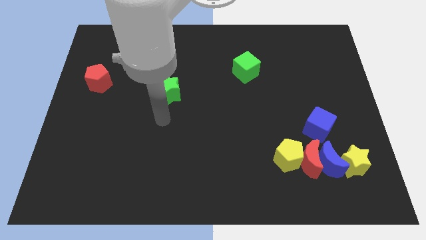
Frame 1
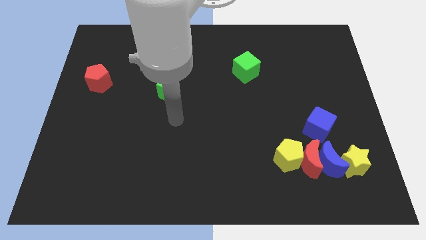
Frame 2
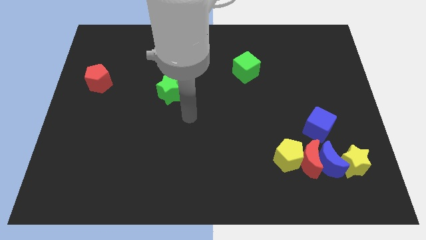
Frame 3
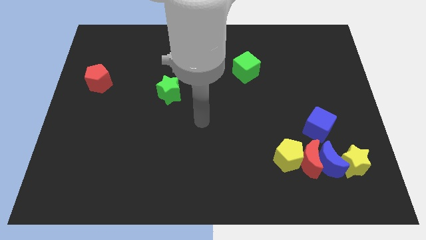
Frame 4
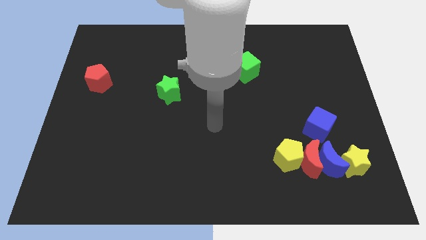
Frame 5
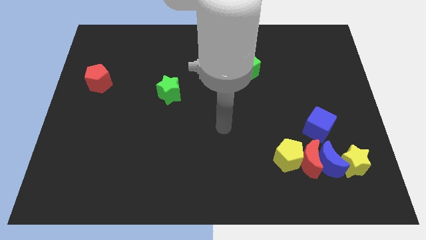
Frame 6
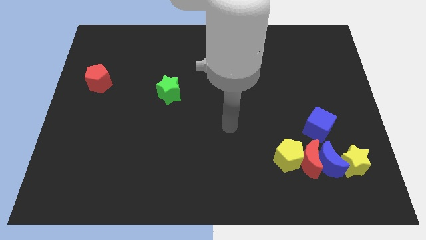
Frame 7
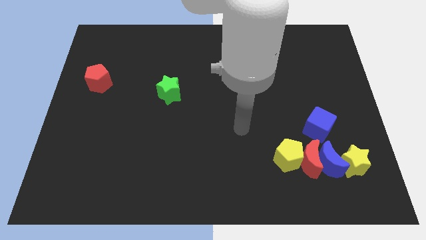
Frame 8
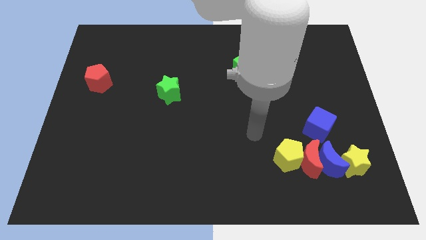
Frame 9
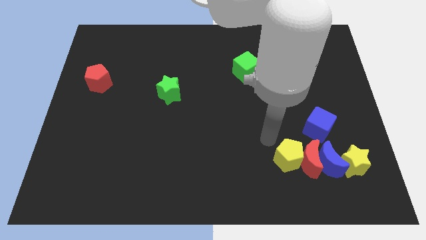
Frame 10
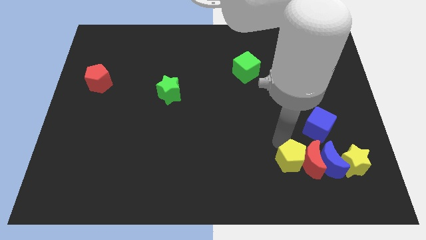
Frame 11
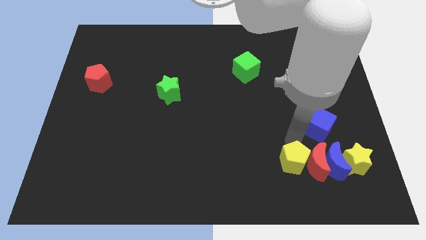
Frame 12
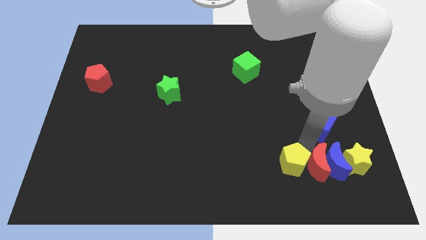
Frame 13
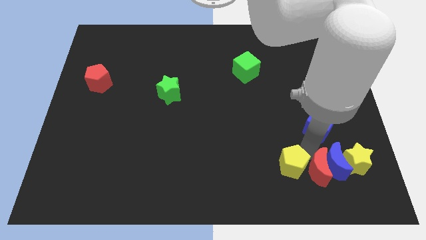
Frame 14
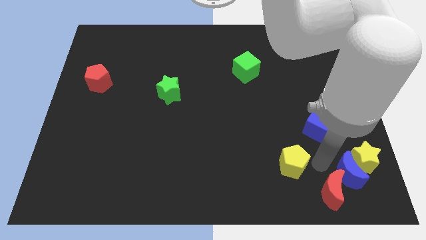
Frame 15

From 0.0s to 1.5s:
move the yellow pentagon away from the red moon and blue moon

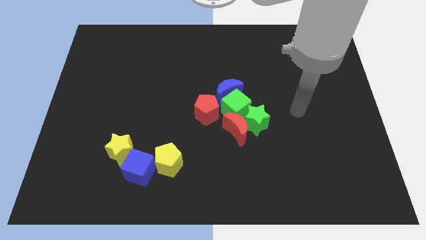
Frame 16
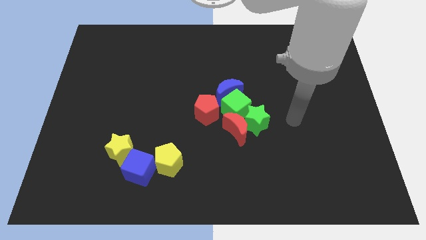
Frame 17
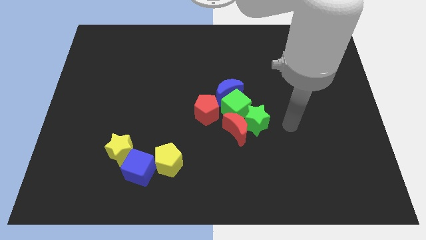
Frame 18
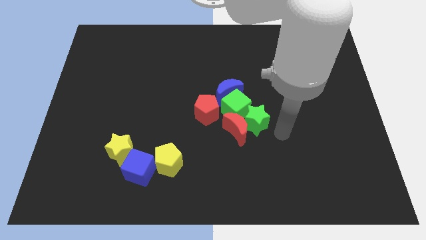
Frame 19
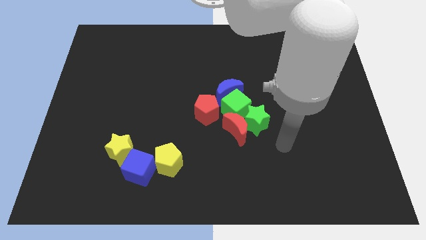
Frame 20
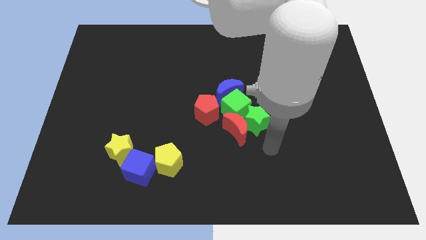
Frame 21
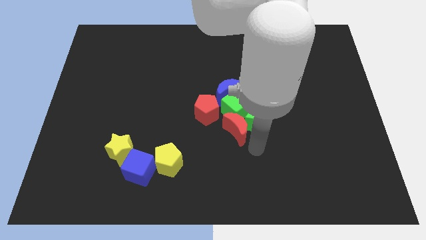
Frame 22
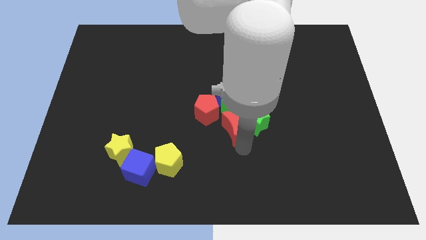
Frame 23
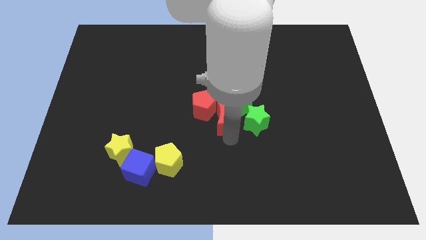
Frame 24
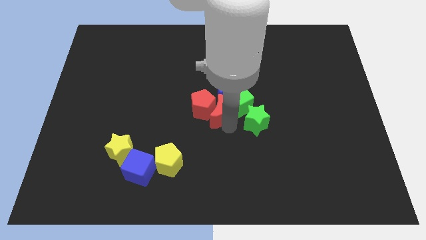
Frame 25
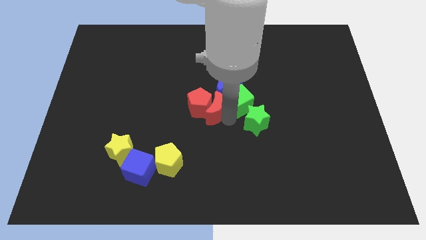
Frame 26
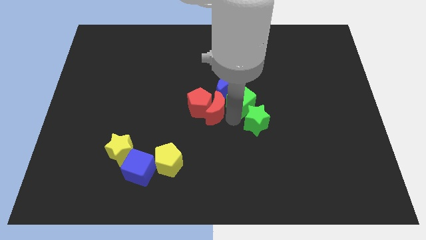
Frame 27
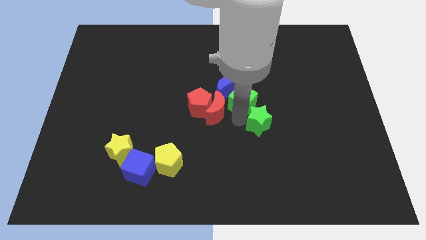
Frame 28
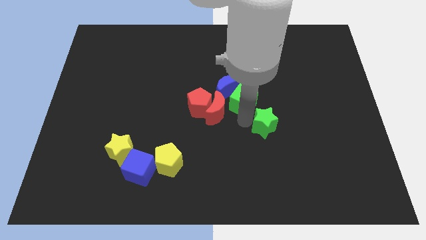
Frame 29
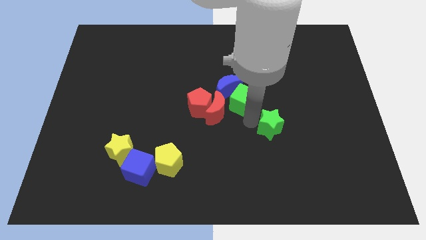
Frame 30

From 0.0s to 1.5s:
separate the green star from the red moon and green cube

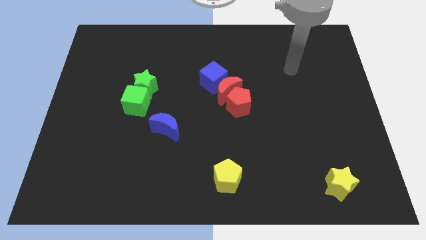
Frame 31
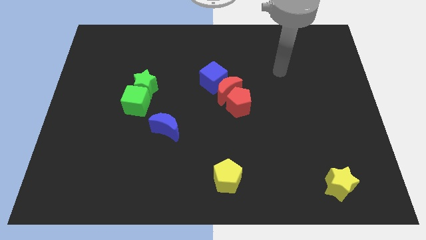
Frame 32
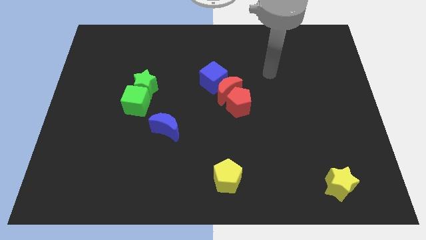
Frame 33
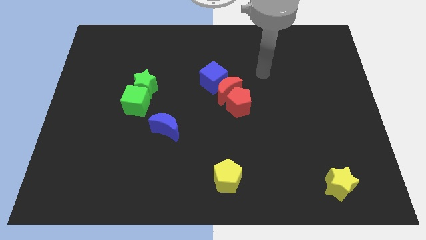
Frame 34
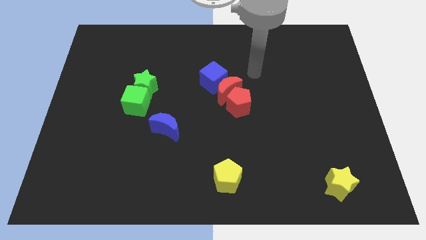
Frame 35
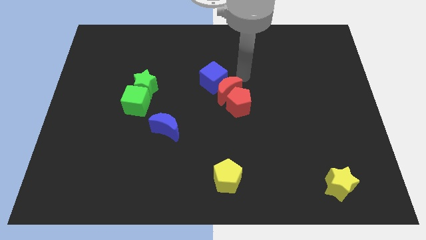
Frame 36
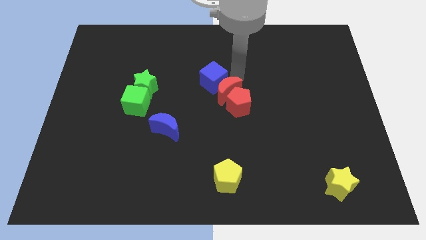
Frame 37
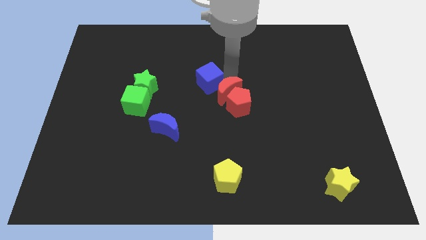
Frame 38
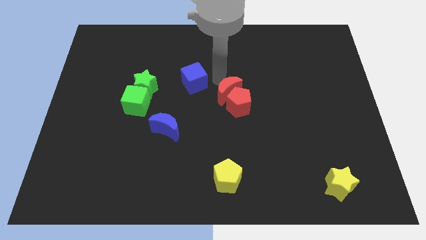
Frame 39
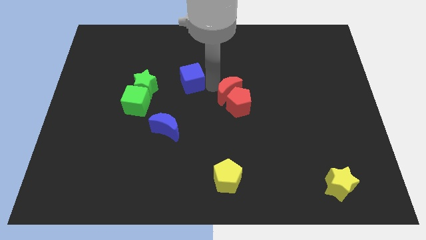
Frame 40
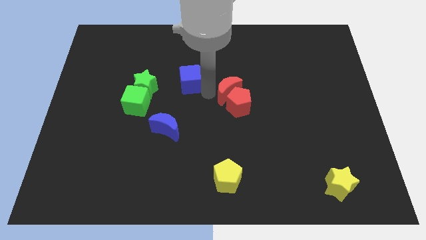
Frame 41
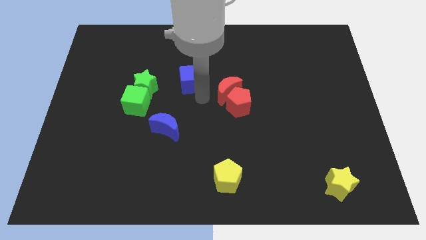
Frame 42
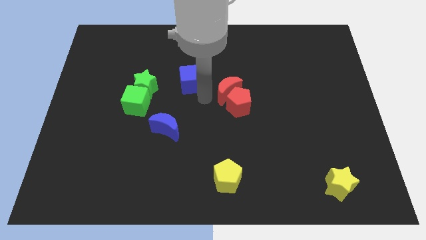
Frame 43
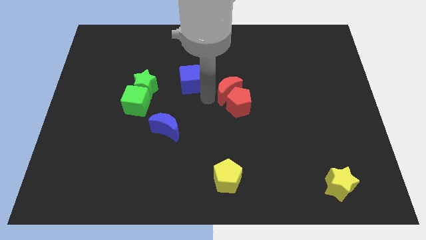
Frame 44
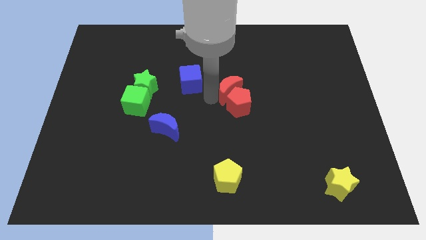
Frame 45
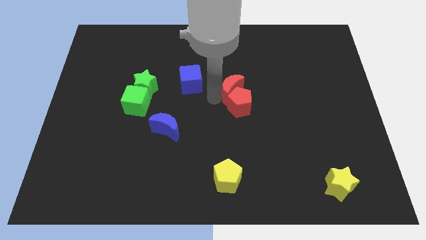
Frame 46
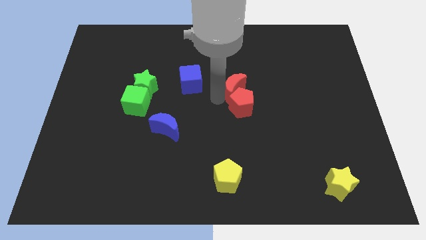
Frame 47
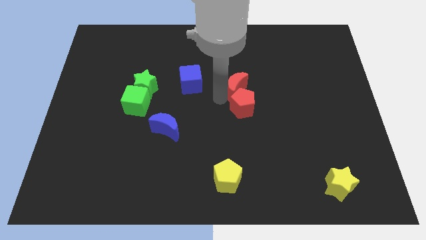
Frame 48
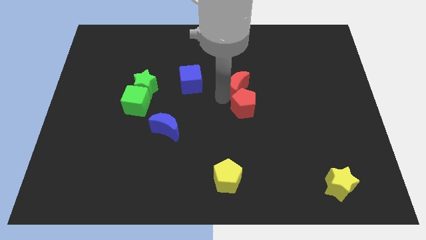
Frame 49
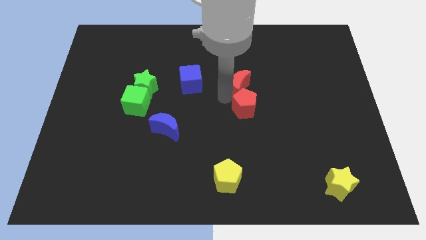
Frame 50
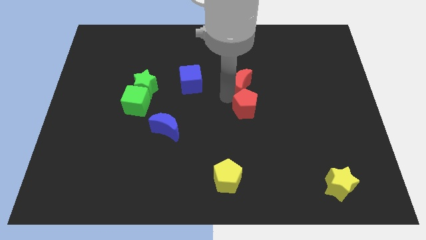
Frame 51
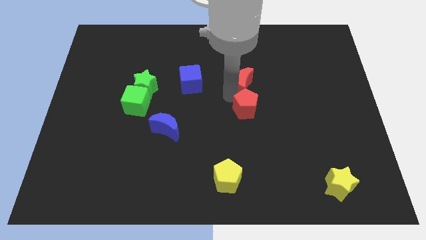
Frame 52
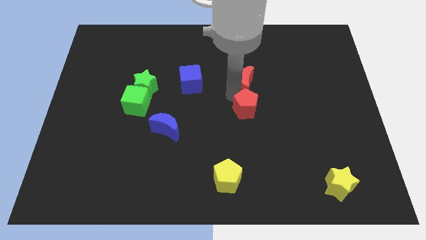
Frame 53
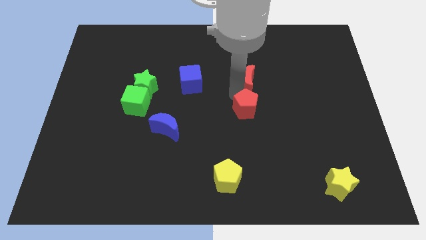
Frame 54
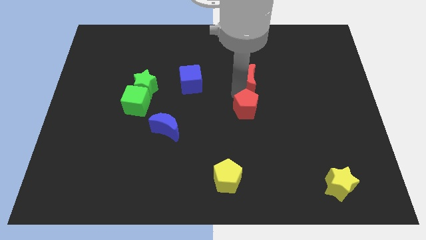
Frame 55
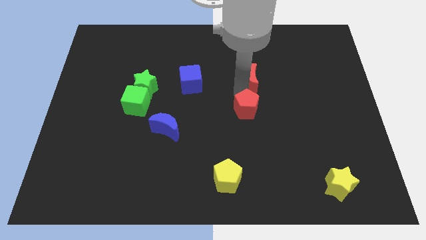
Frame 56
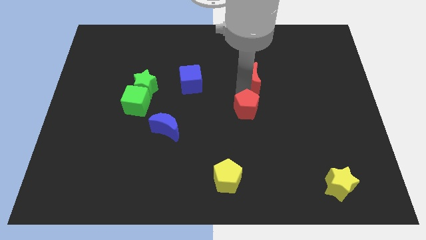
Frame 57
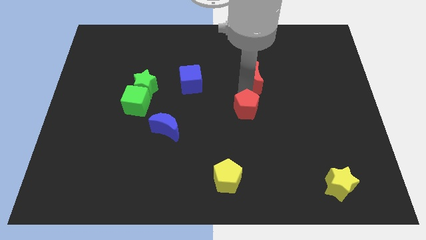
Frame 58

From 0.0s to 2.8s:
pull the red moon apart from the red pentagon and blue cube

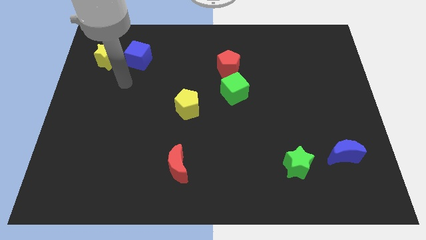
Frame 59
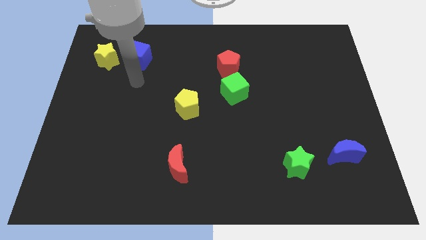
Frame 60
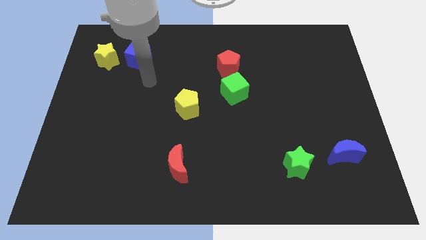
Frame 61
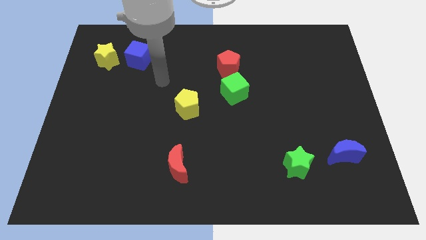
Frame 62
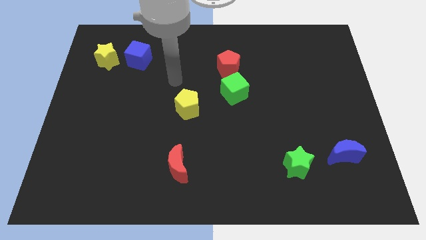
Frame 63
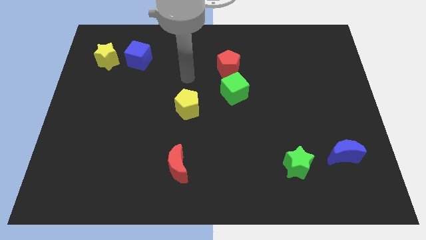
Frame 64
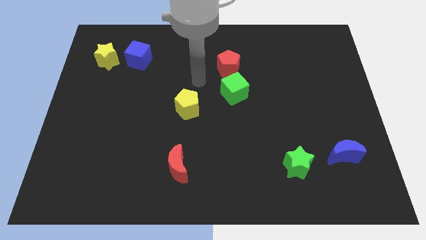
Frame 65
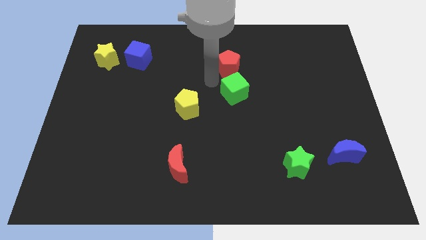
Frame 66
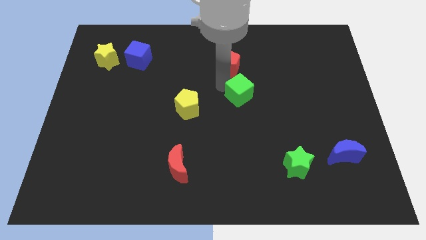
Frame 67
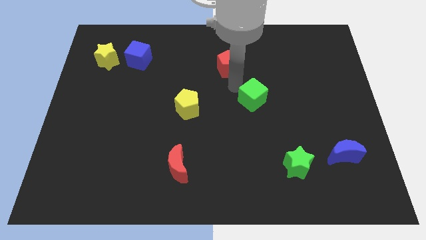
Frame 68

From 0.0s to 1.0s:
move the red pentagon away from the green cube

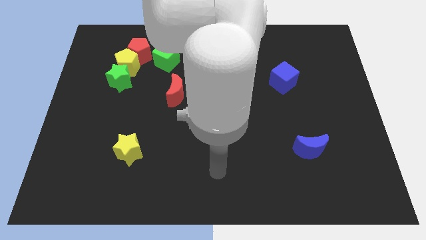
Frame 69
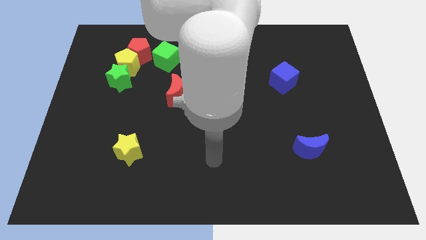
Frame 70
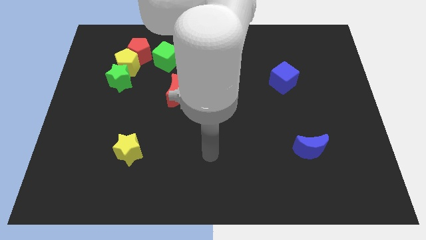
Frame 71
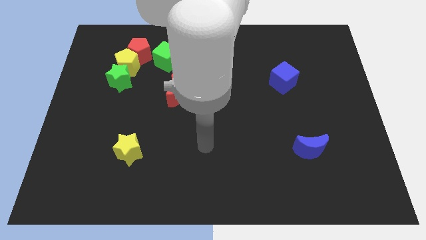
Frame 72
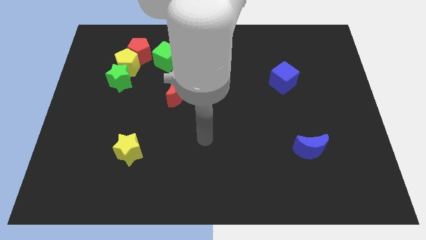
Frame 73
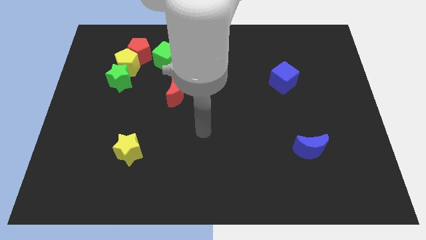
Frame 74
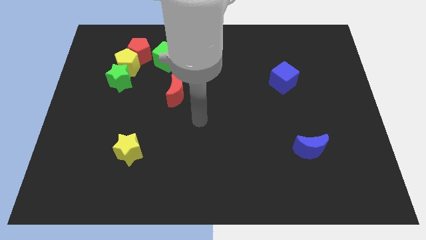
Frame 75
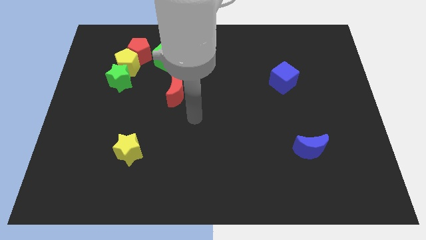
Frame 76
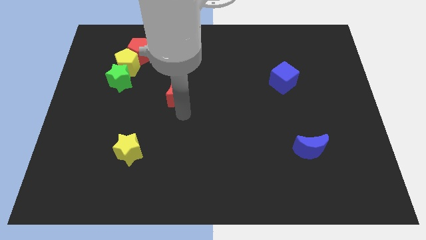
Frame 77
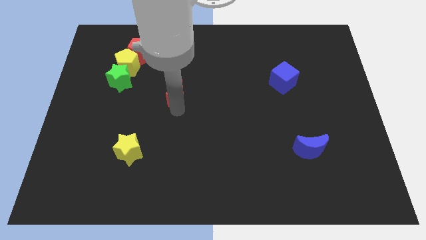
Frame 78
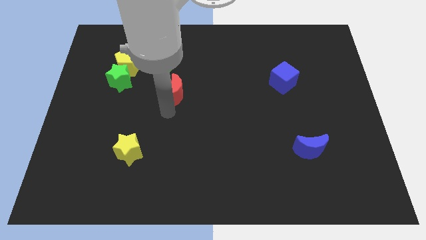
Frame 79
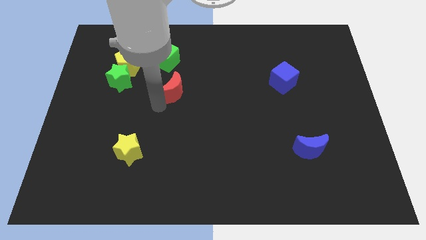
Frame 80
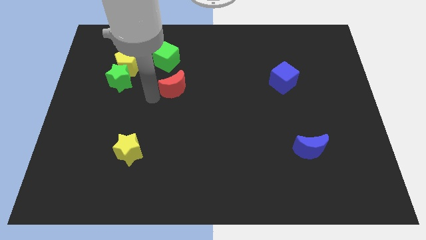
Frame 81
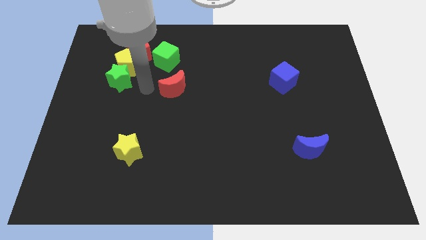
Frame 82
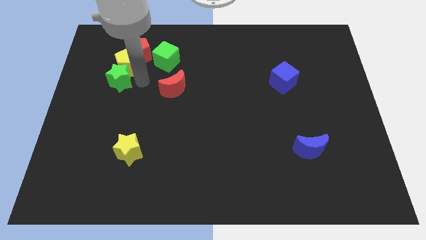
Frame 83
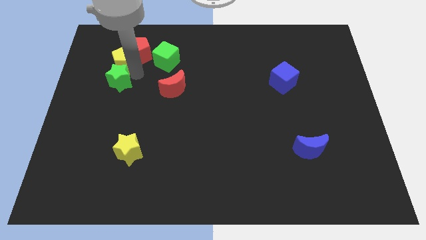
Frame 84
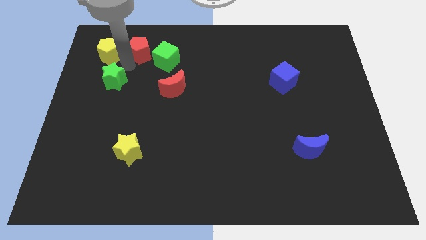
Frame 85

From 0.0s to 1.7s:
move the green star away from the yellow pentagon

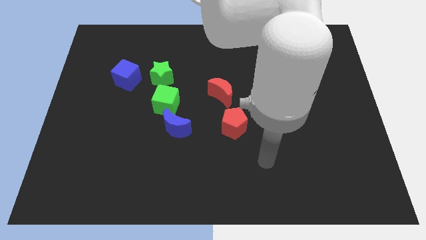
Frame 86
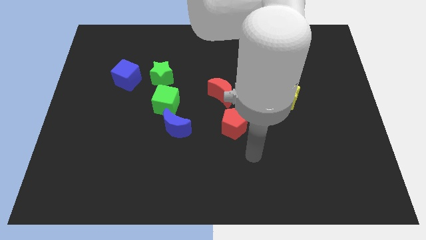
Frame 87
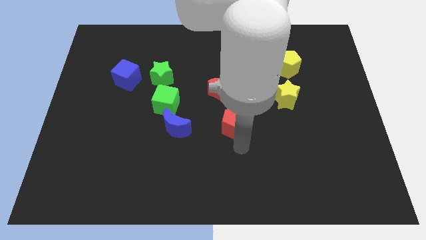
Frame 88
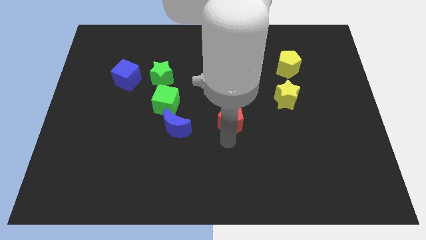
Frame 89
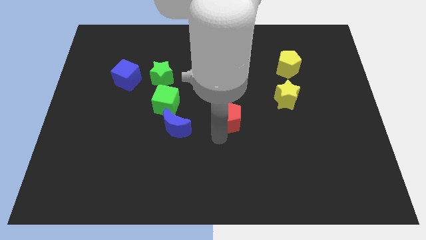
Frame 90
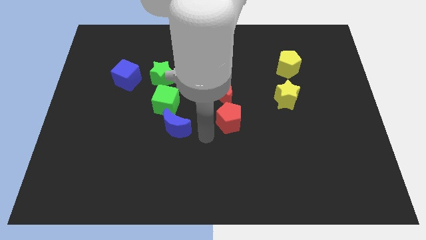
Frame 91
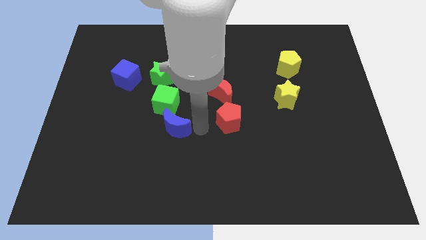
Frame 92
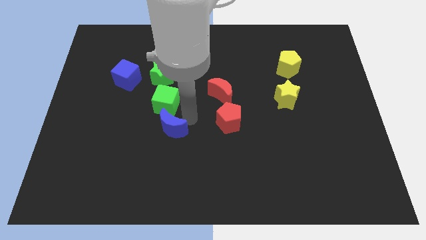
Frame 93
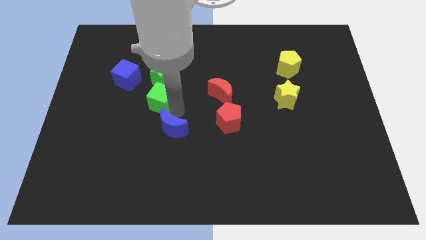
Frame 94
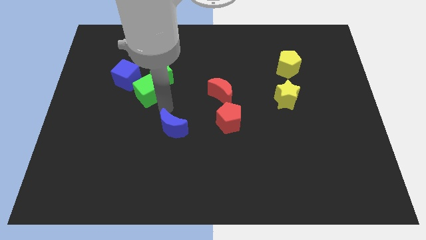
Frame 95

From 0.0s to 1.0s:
separate the blue moon from the green cube
